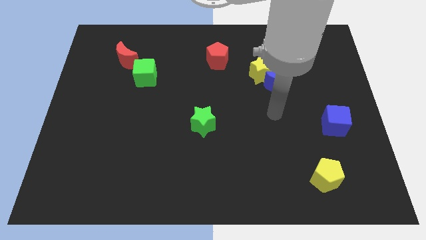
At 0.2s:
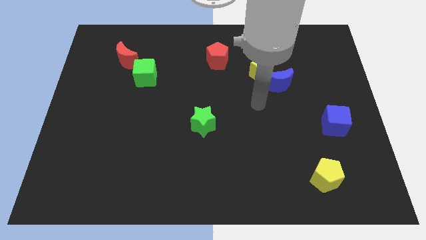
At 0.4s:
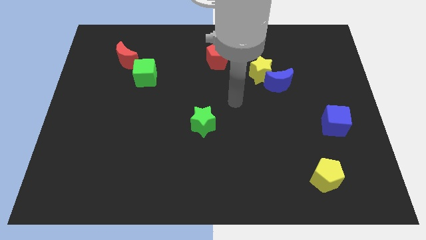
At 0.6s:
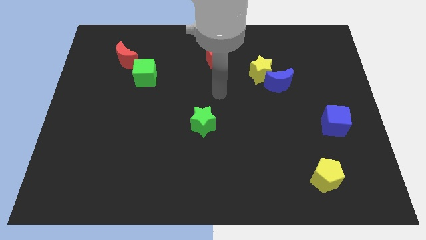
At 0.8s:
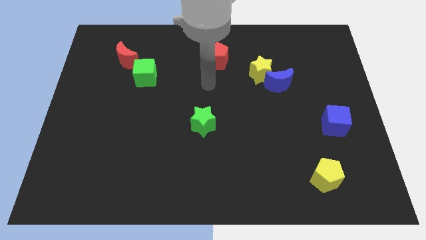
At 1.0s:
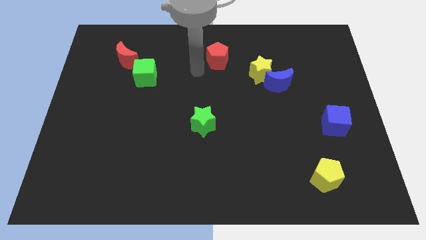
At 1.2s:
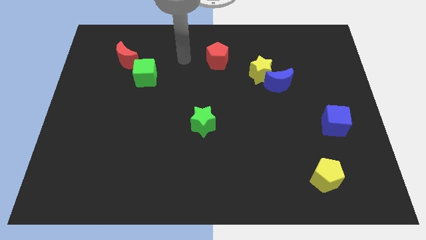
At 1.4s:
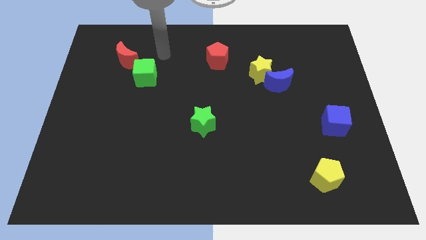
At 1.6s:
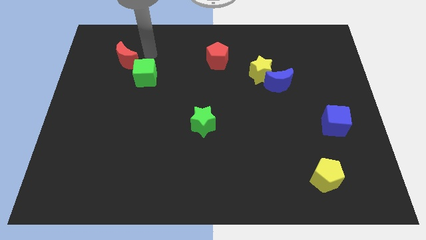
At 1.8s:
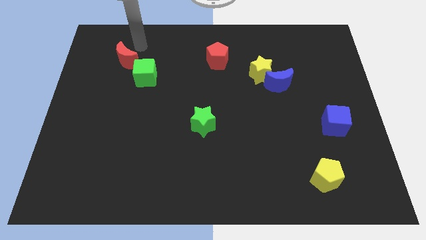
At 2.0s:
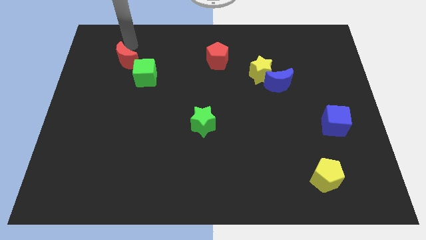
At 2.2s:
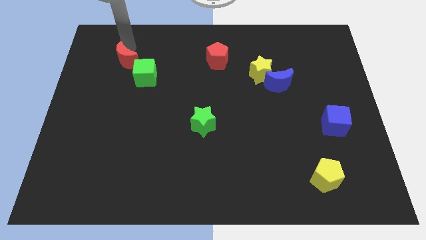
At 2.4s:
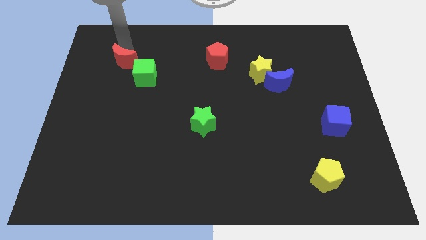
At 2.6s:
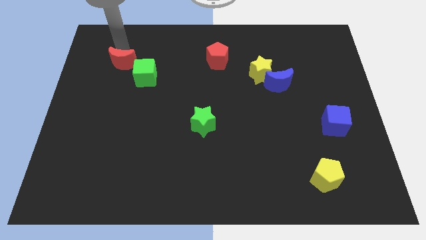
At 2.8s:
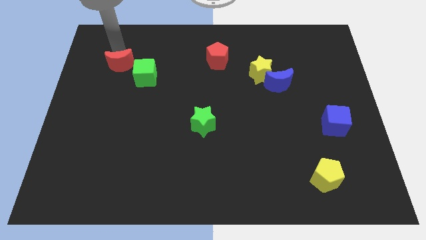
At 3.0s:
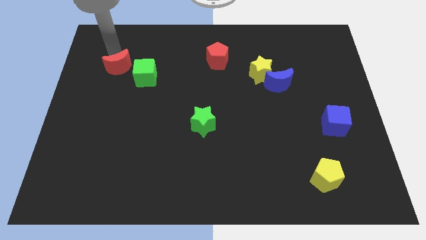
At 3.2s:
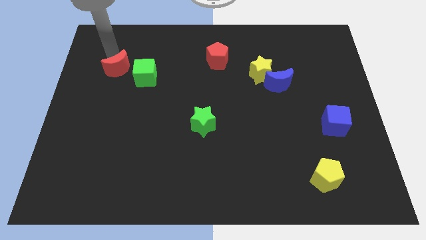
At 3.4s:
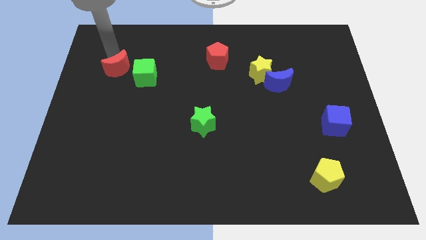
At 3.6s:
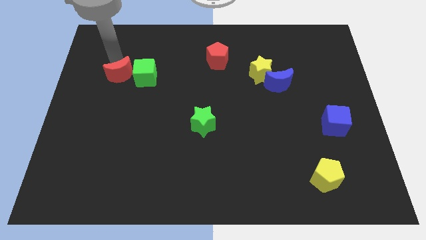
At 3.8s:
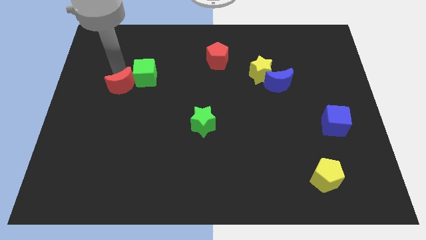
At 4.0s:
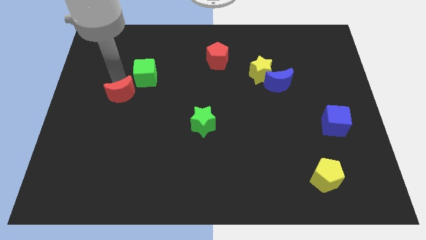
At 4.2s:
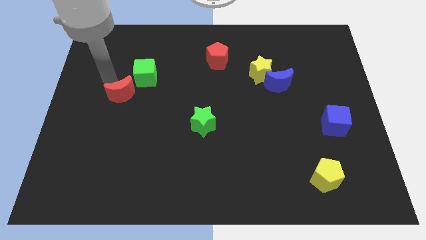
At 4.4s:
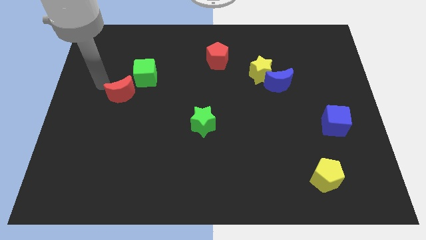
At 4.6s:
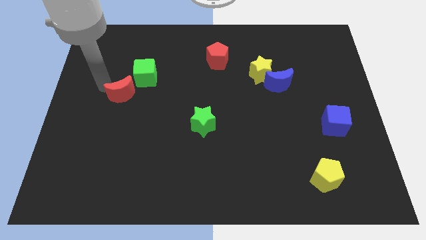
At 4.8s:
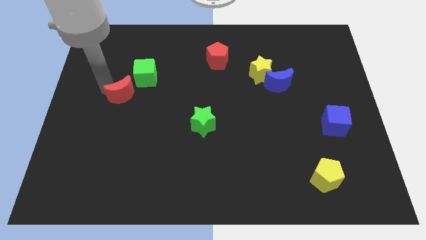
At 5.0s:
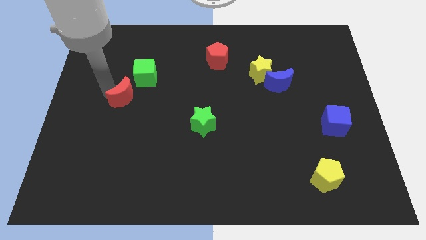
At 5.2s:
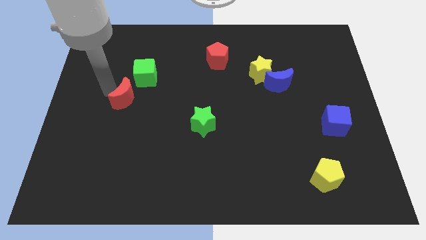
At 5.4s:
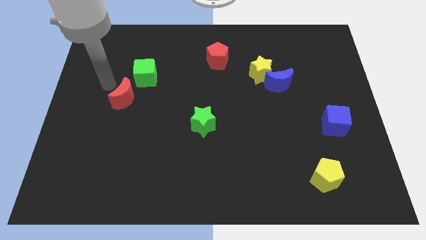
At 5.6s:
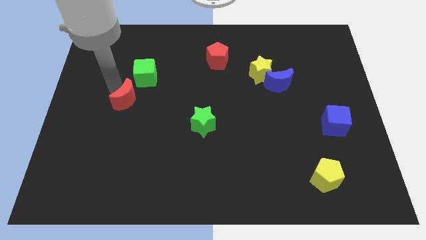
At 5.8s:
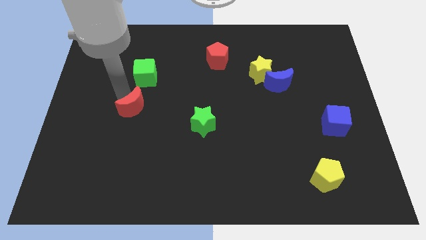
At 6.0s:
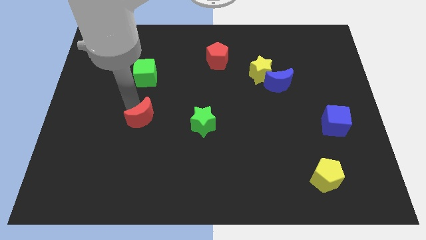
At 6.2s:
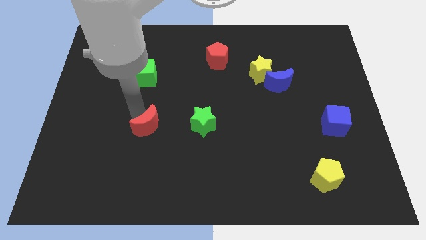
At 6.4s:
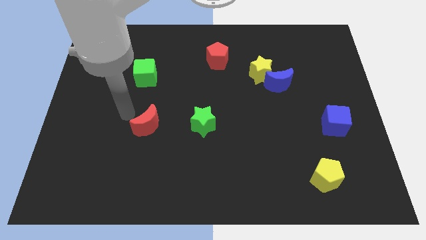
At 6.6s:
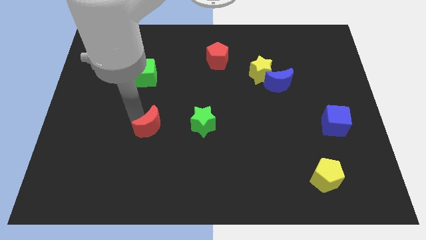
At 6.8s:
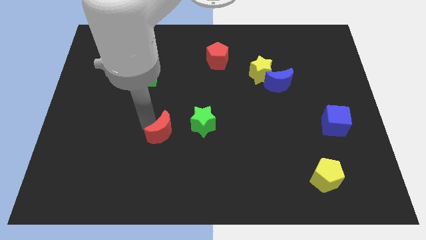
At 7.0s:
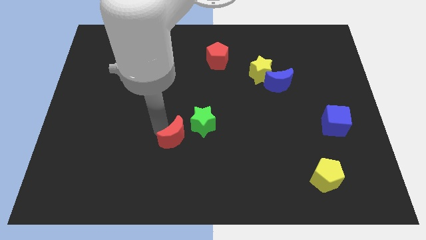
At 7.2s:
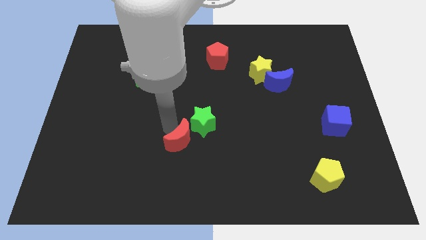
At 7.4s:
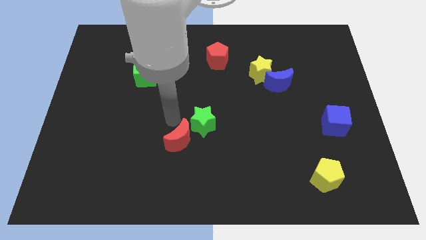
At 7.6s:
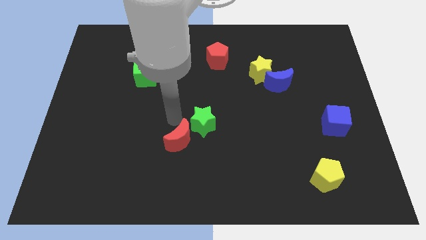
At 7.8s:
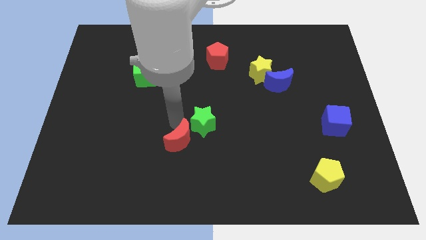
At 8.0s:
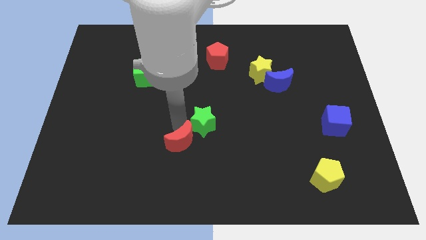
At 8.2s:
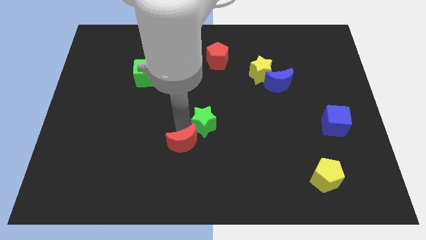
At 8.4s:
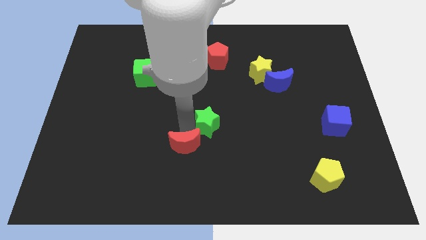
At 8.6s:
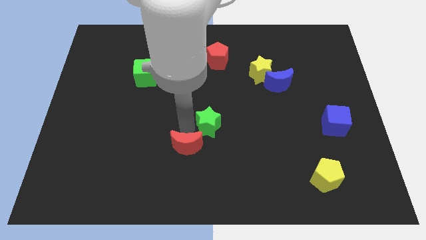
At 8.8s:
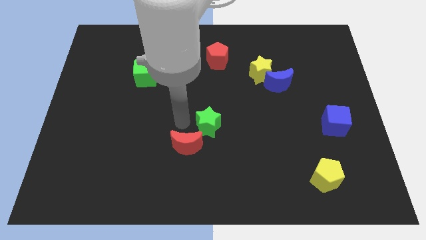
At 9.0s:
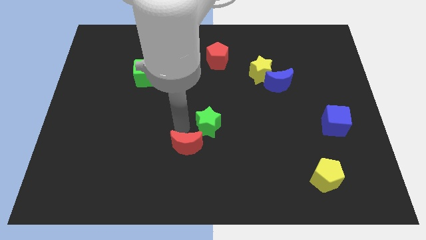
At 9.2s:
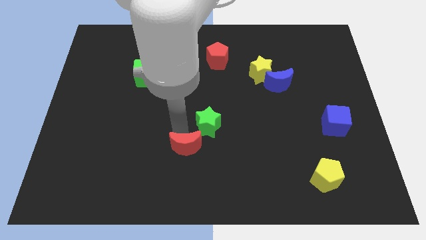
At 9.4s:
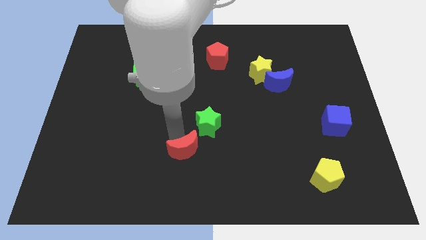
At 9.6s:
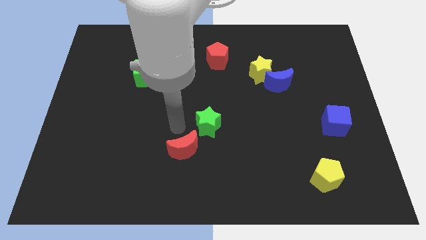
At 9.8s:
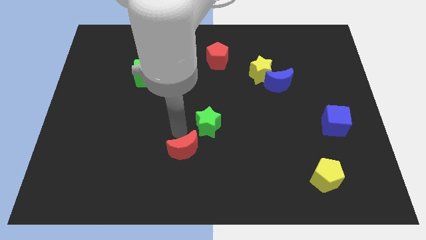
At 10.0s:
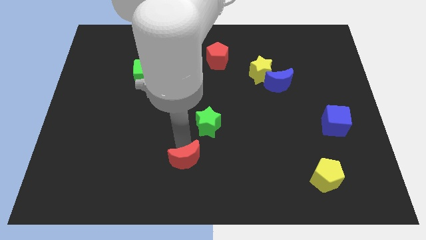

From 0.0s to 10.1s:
put the red moon to the bottom side

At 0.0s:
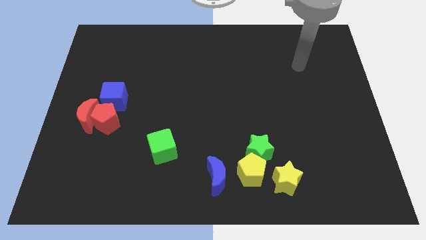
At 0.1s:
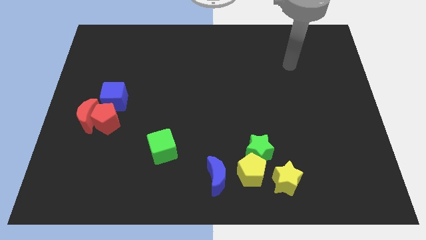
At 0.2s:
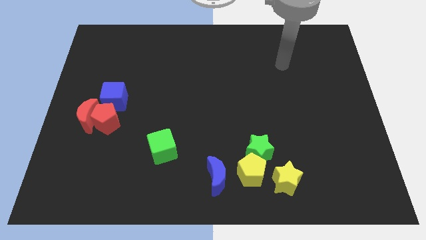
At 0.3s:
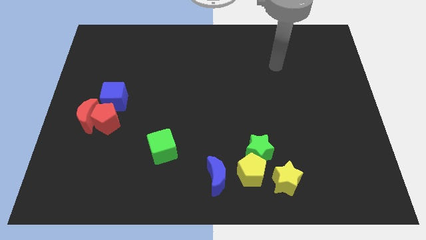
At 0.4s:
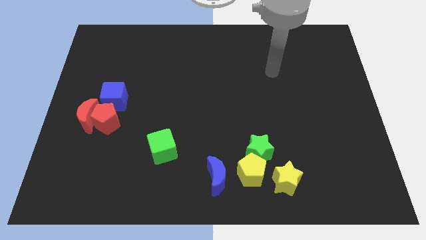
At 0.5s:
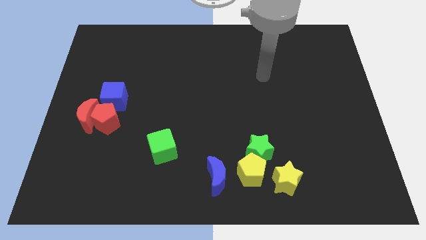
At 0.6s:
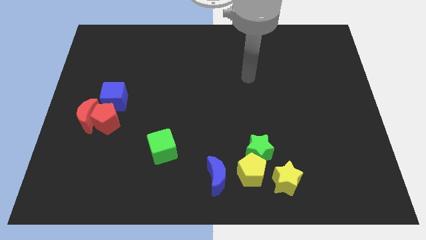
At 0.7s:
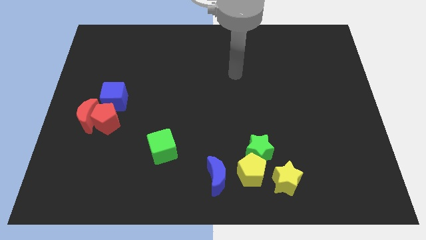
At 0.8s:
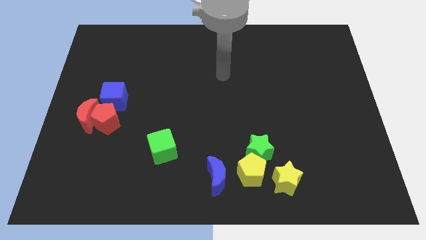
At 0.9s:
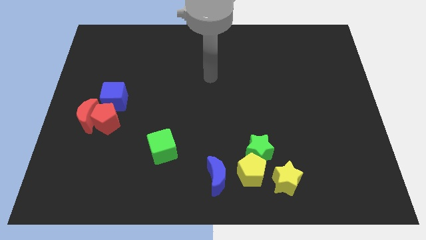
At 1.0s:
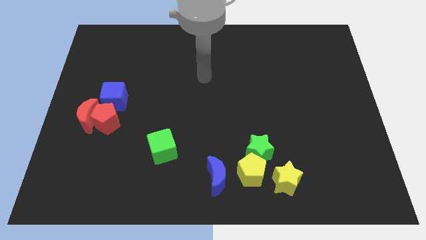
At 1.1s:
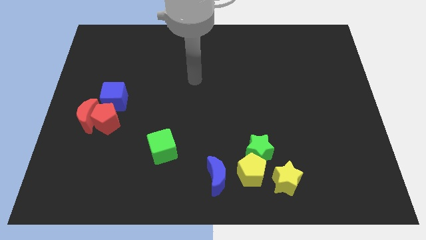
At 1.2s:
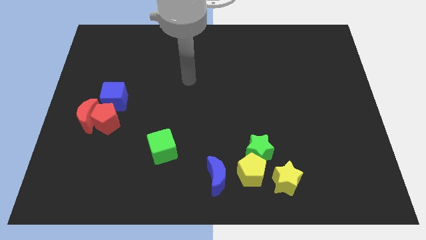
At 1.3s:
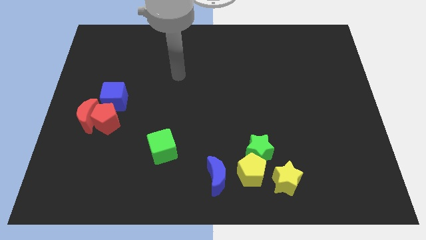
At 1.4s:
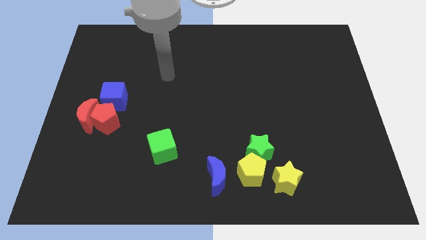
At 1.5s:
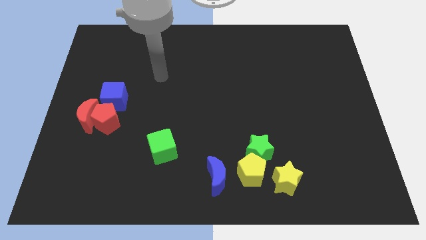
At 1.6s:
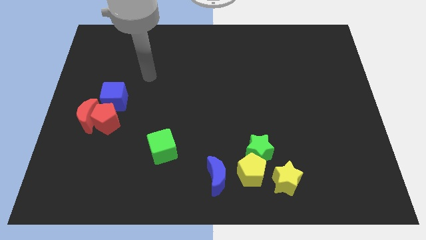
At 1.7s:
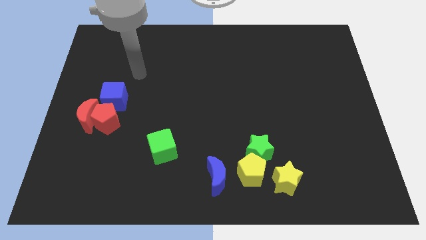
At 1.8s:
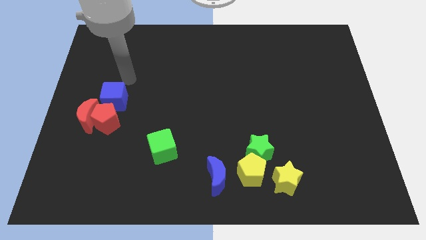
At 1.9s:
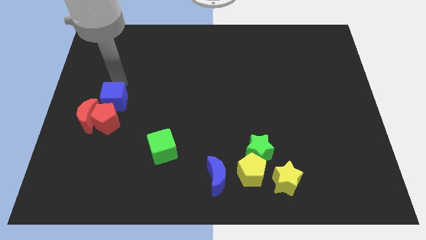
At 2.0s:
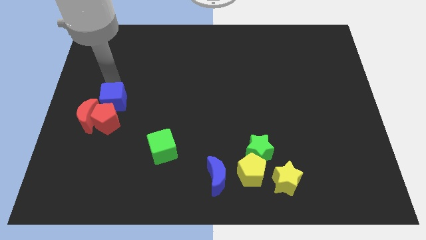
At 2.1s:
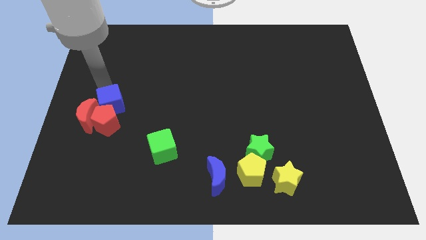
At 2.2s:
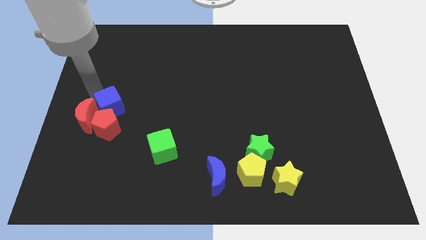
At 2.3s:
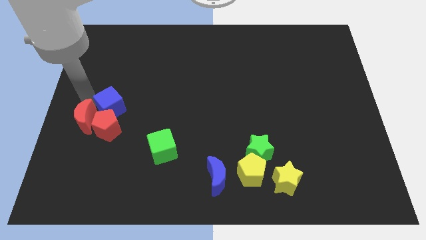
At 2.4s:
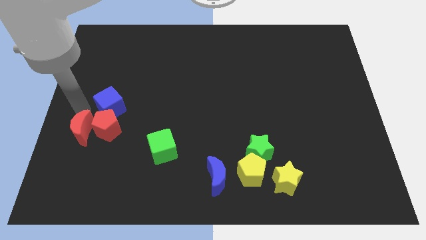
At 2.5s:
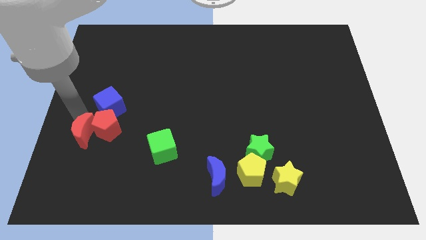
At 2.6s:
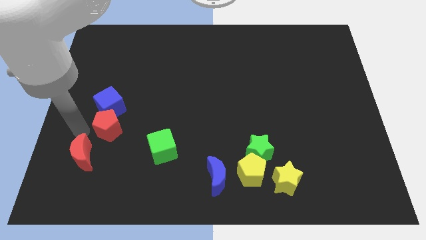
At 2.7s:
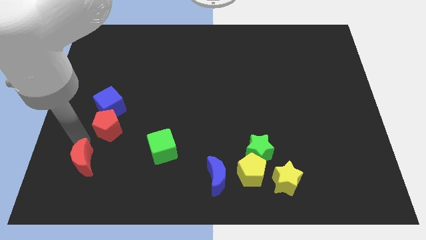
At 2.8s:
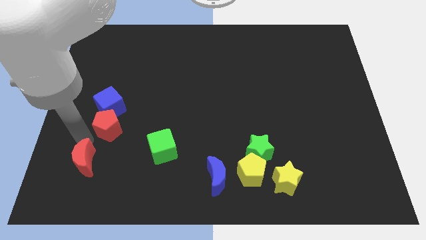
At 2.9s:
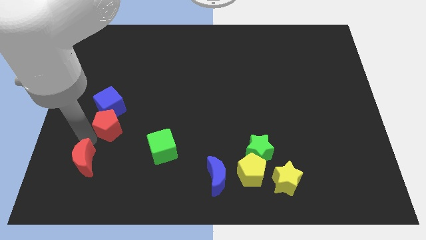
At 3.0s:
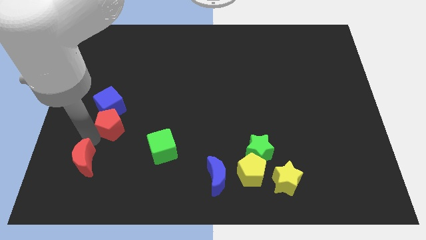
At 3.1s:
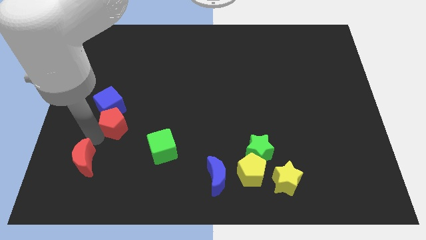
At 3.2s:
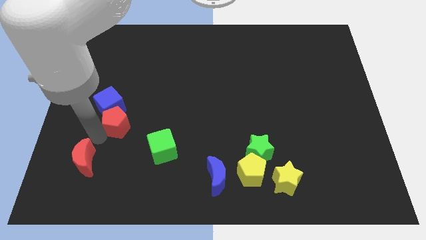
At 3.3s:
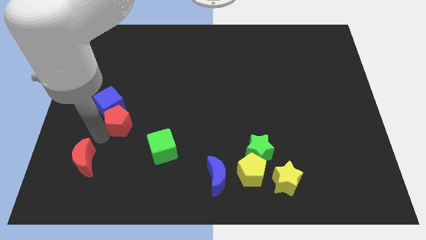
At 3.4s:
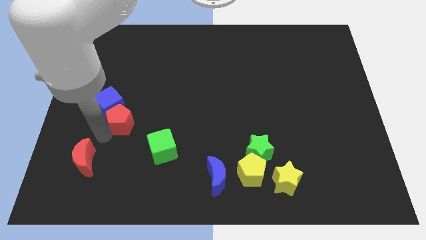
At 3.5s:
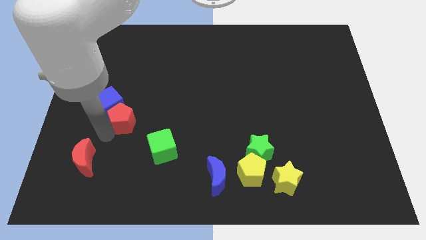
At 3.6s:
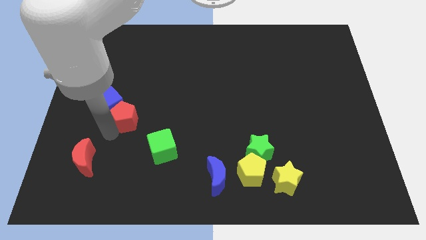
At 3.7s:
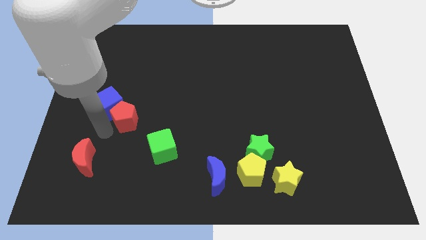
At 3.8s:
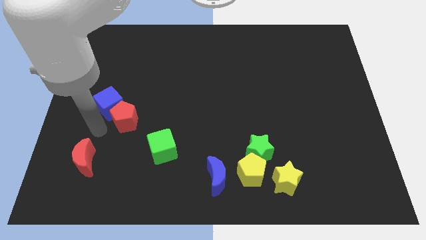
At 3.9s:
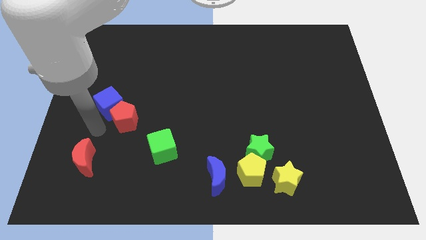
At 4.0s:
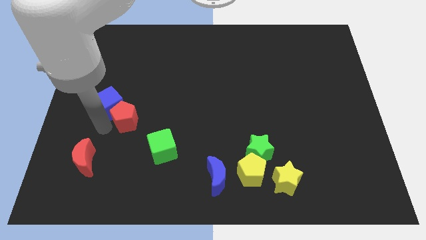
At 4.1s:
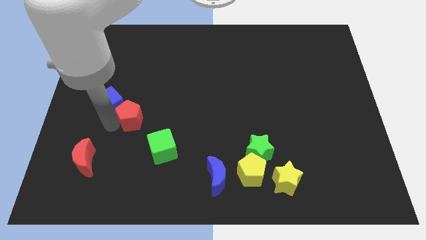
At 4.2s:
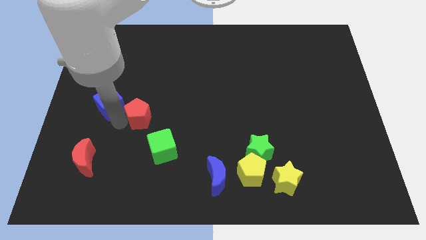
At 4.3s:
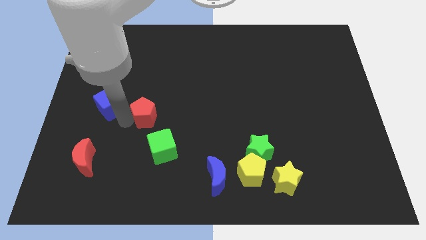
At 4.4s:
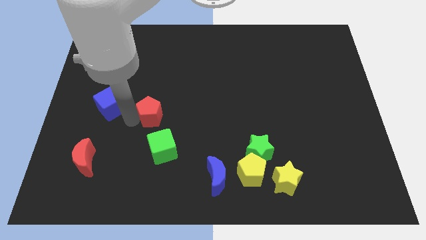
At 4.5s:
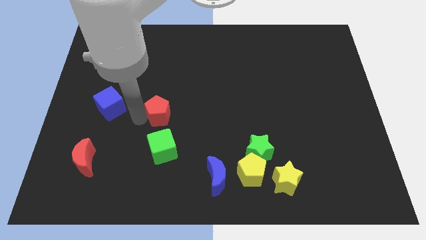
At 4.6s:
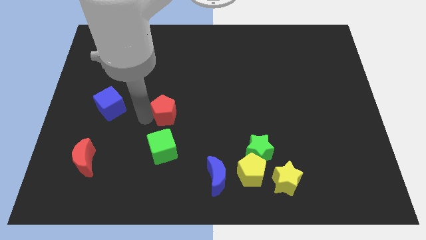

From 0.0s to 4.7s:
push the red pentagon to the middle
